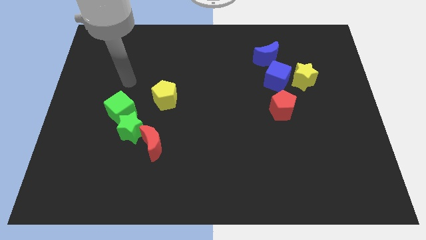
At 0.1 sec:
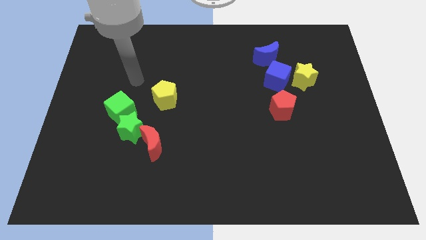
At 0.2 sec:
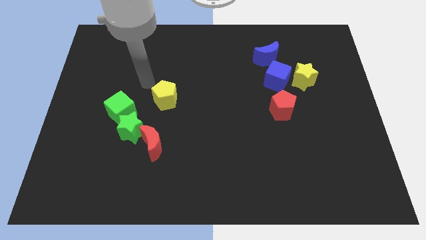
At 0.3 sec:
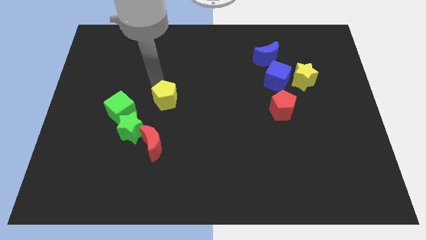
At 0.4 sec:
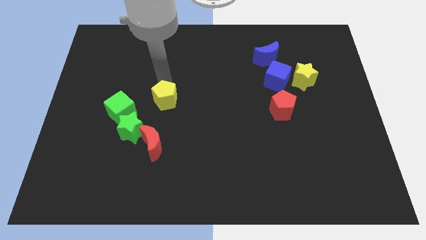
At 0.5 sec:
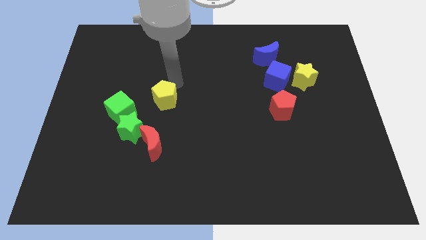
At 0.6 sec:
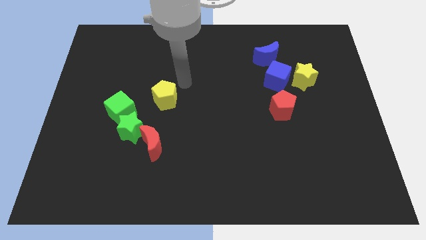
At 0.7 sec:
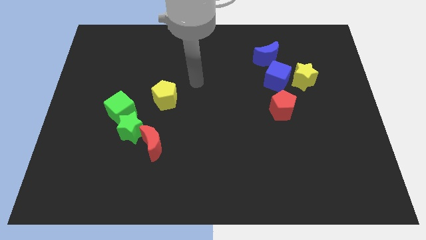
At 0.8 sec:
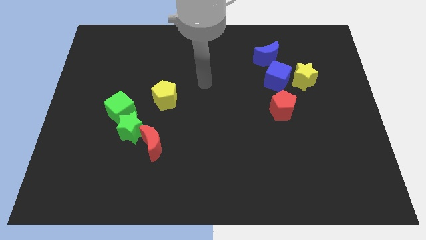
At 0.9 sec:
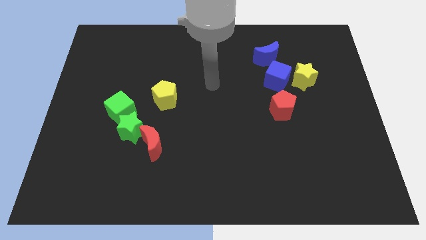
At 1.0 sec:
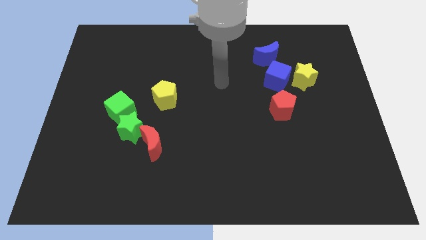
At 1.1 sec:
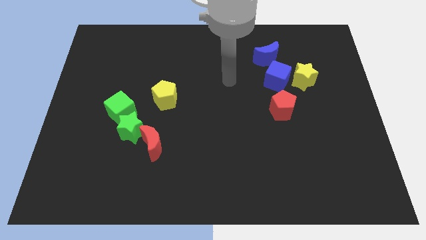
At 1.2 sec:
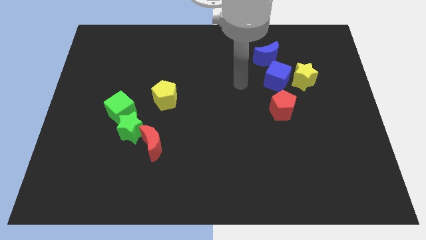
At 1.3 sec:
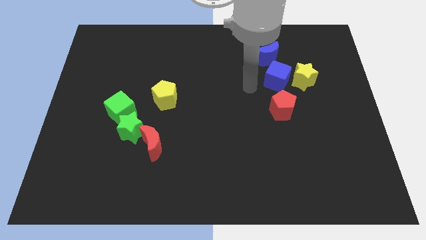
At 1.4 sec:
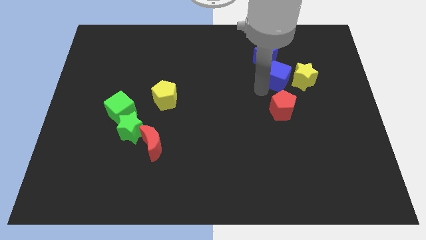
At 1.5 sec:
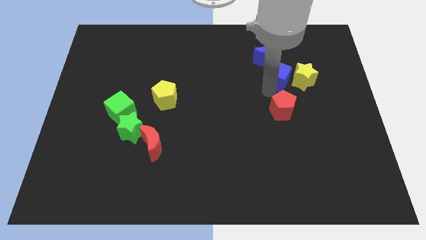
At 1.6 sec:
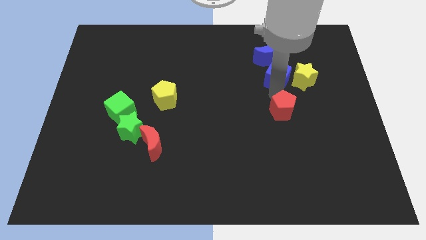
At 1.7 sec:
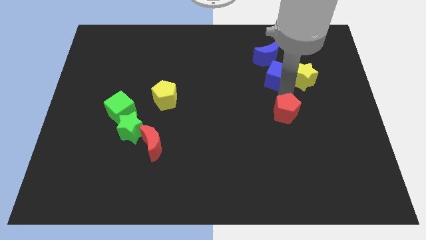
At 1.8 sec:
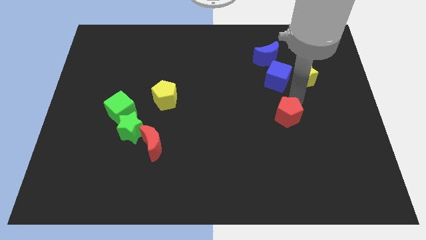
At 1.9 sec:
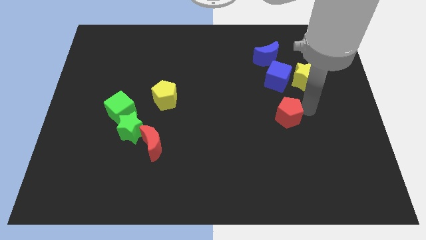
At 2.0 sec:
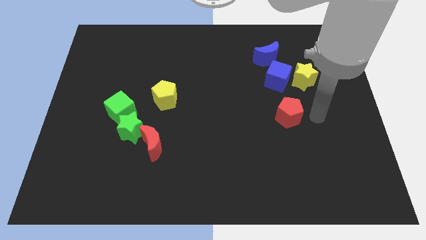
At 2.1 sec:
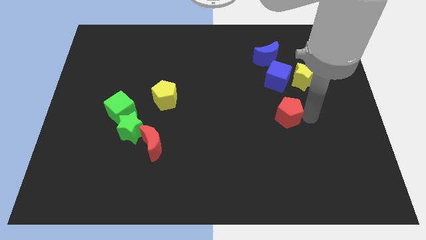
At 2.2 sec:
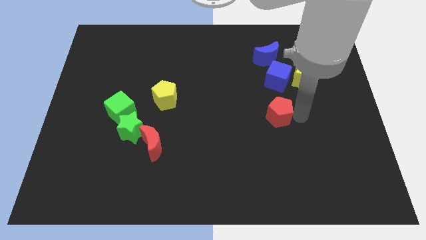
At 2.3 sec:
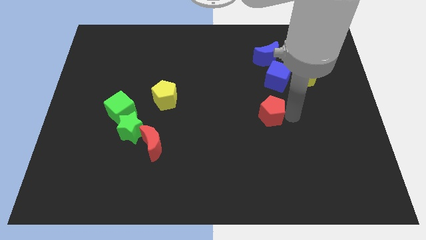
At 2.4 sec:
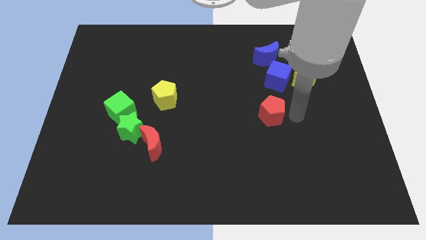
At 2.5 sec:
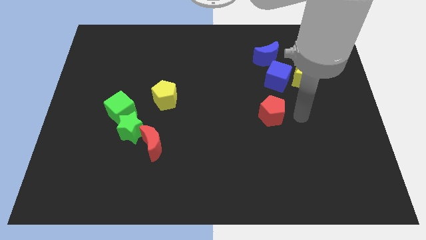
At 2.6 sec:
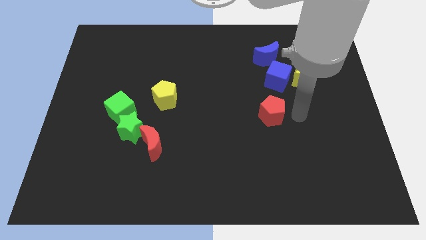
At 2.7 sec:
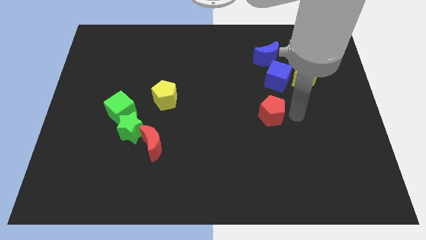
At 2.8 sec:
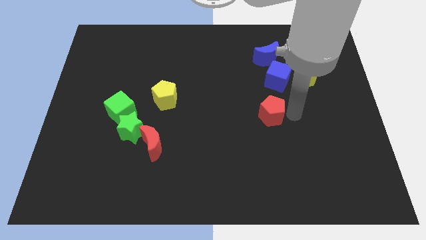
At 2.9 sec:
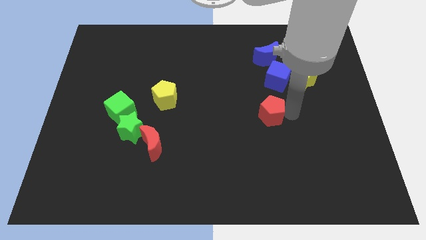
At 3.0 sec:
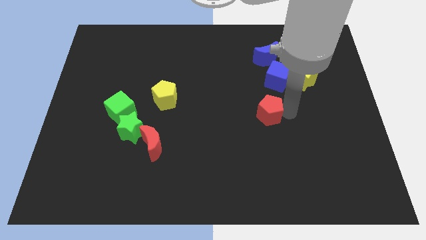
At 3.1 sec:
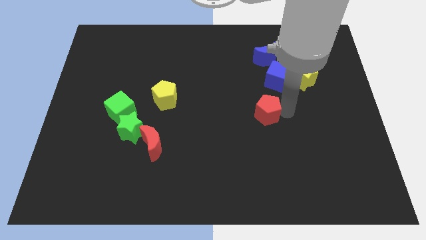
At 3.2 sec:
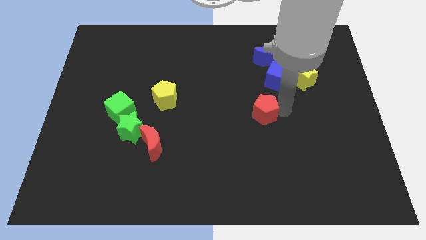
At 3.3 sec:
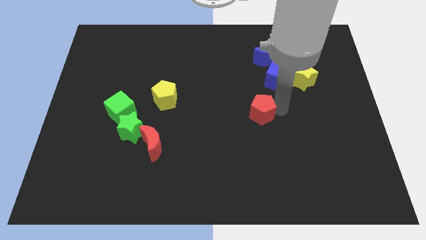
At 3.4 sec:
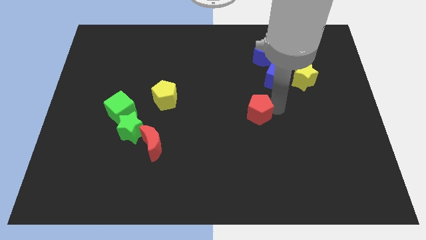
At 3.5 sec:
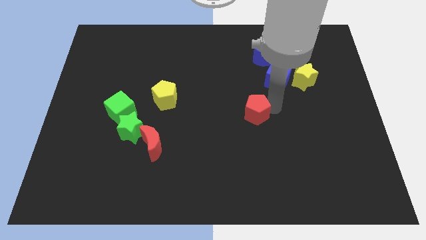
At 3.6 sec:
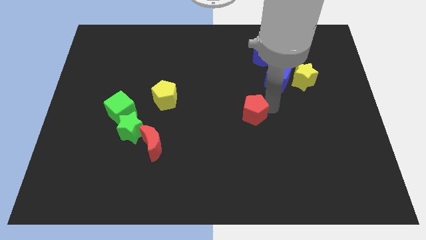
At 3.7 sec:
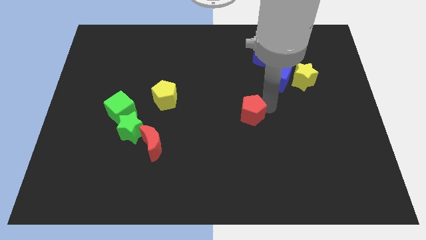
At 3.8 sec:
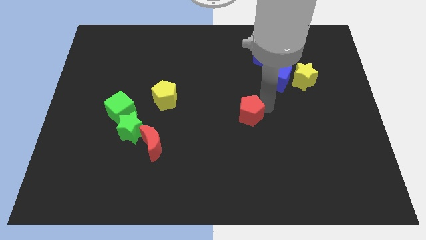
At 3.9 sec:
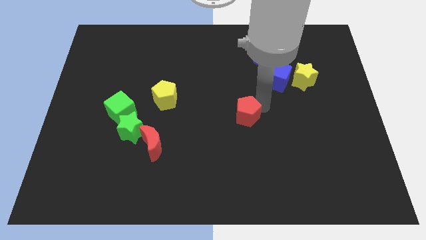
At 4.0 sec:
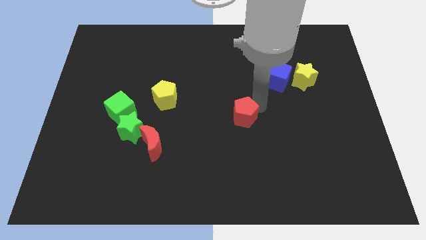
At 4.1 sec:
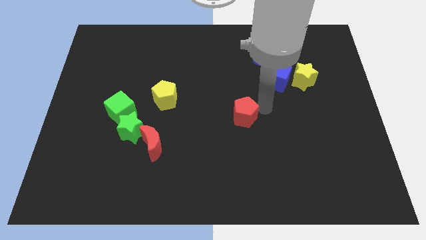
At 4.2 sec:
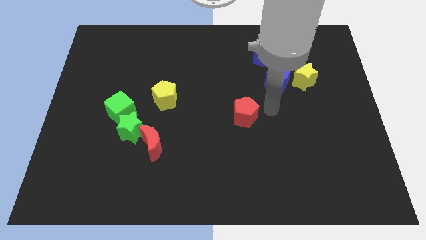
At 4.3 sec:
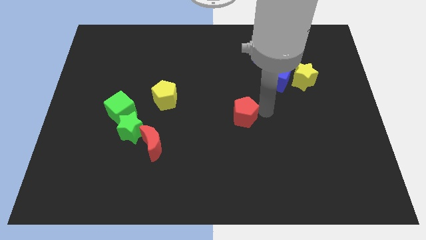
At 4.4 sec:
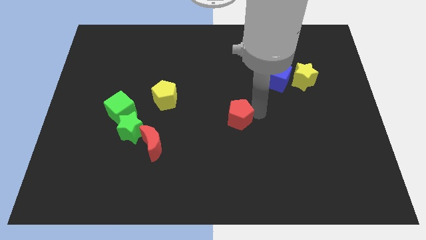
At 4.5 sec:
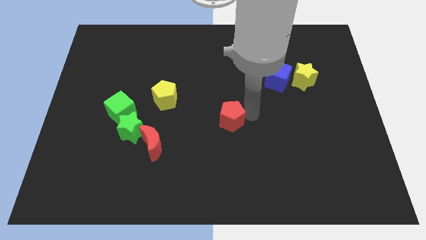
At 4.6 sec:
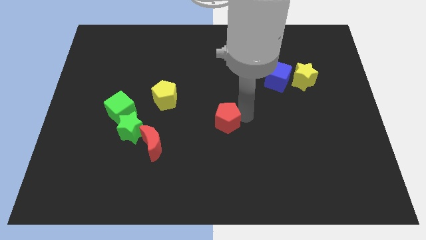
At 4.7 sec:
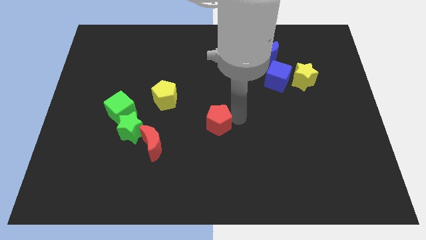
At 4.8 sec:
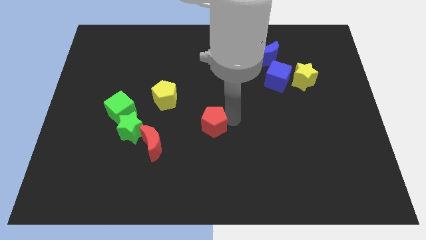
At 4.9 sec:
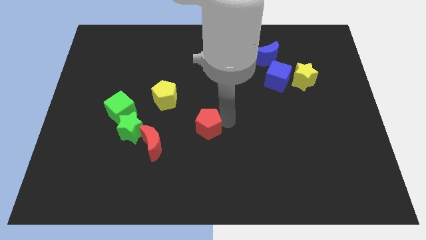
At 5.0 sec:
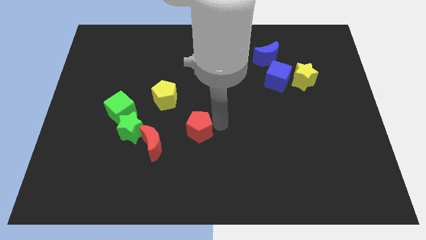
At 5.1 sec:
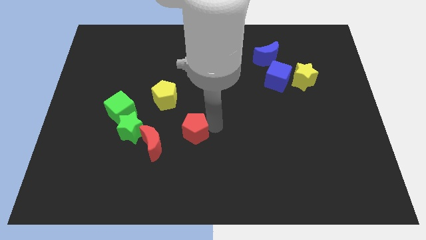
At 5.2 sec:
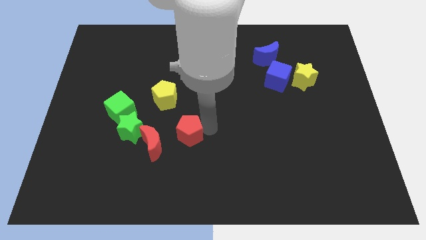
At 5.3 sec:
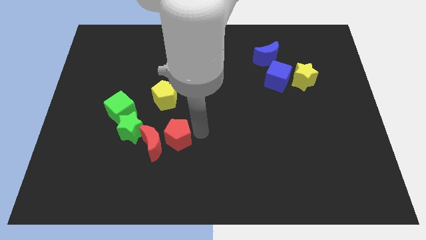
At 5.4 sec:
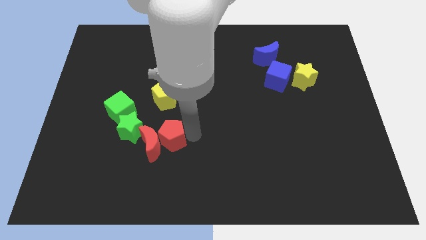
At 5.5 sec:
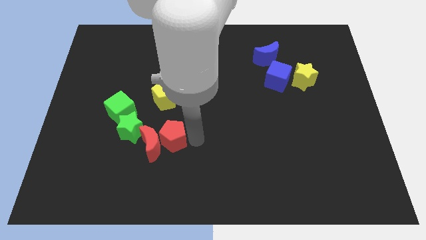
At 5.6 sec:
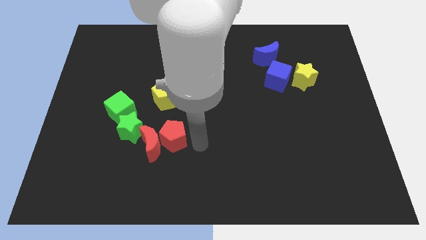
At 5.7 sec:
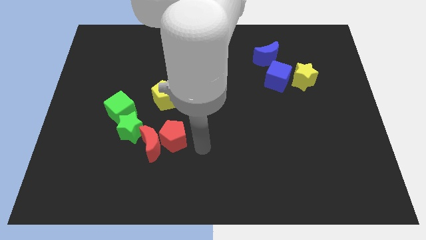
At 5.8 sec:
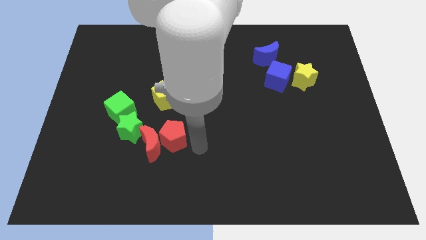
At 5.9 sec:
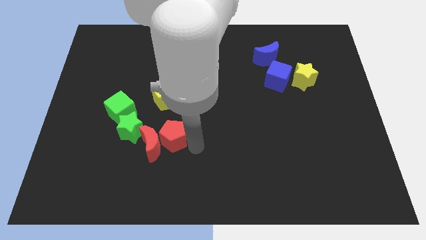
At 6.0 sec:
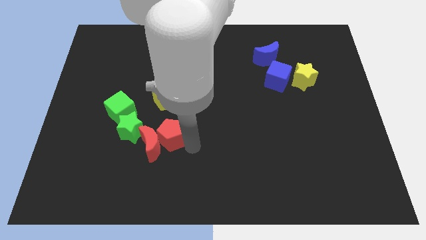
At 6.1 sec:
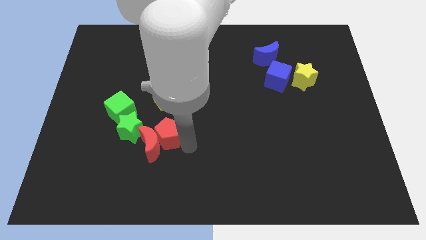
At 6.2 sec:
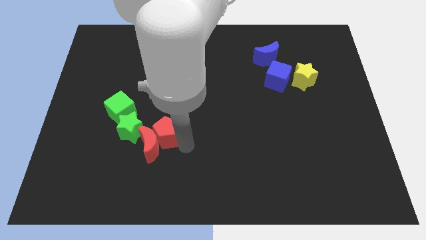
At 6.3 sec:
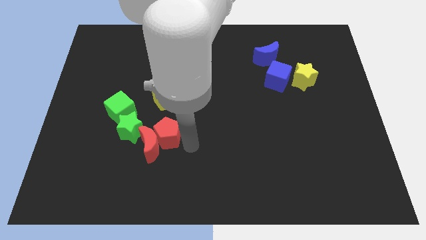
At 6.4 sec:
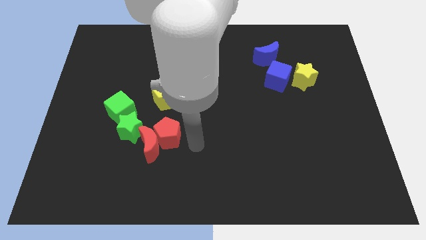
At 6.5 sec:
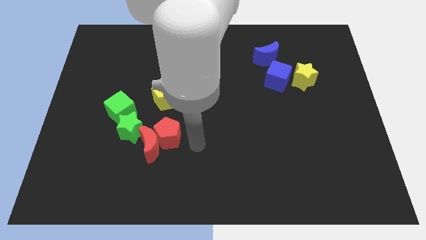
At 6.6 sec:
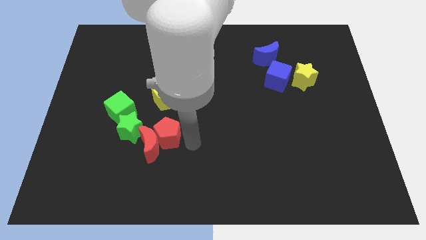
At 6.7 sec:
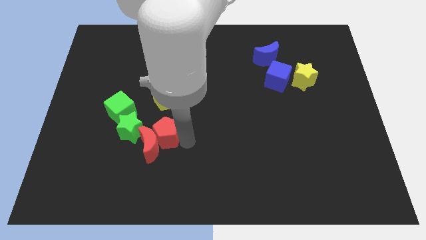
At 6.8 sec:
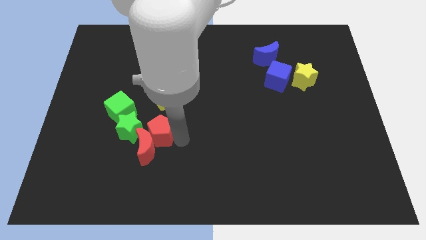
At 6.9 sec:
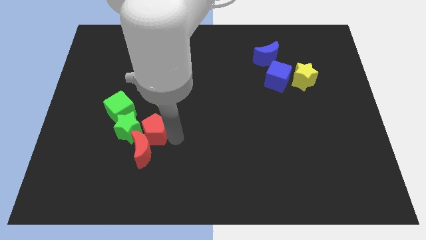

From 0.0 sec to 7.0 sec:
push the red pentagon to the green star

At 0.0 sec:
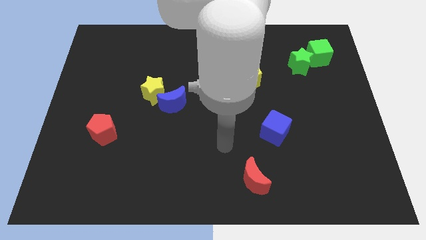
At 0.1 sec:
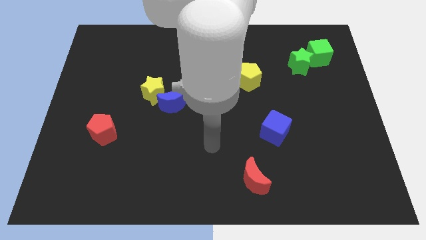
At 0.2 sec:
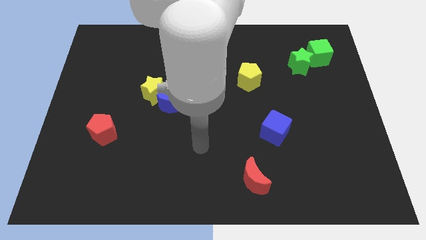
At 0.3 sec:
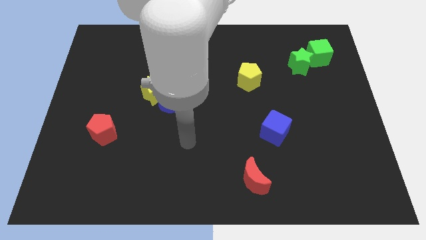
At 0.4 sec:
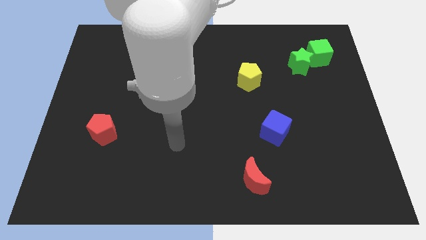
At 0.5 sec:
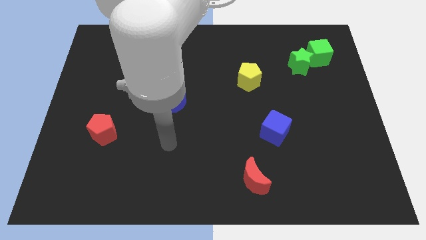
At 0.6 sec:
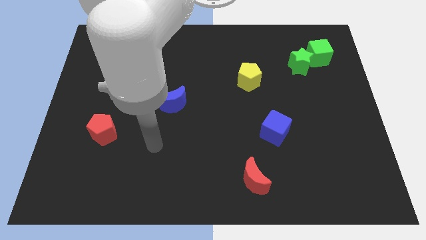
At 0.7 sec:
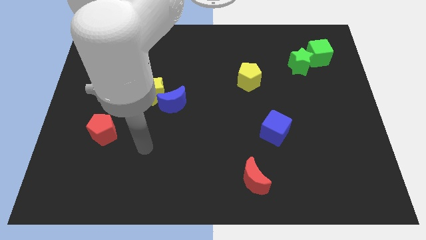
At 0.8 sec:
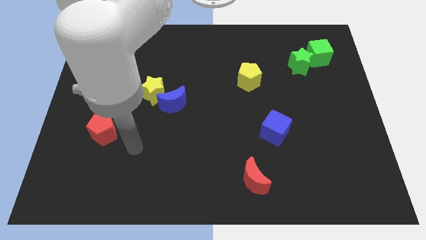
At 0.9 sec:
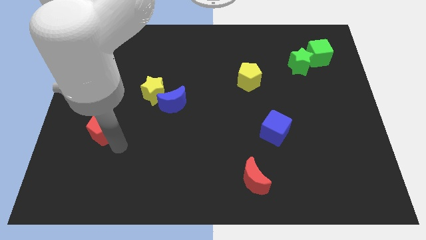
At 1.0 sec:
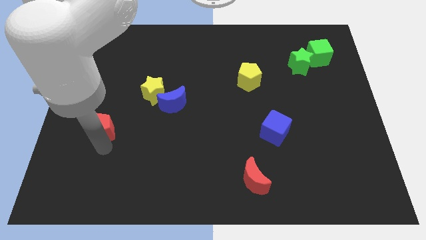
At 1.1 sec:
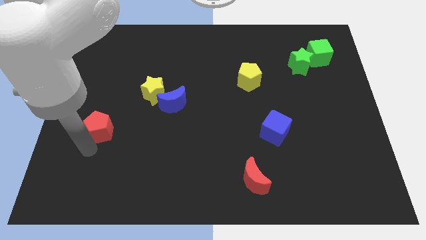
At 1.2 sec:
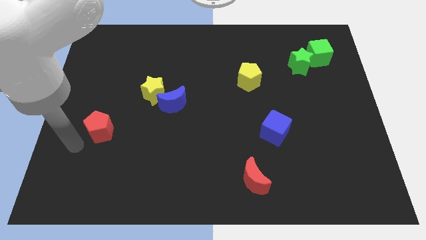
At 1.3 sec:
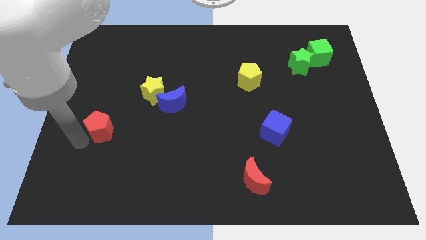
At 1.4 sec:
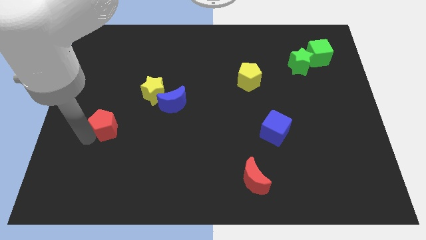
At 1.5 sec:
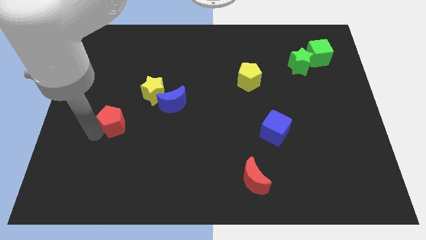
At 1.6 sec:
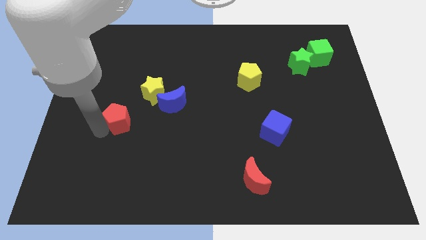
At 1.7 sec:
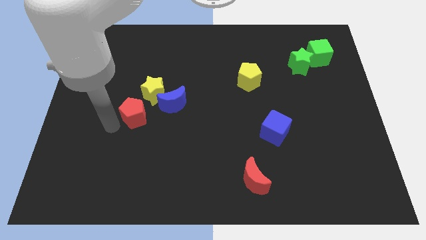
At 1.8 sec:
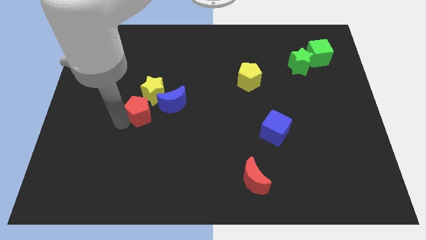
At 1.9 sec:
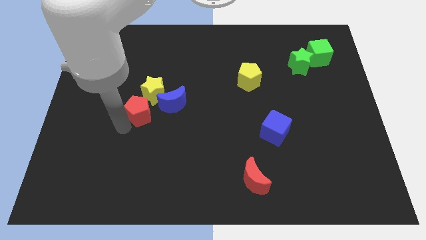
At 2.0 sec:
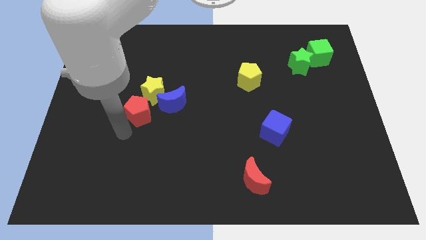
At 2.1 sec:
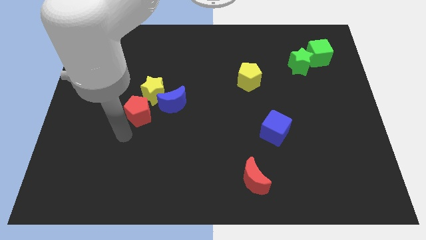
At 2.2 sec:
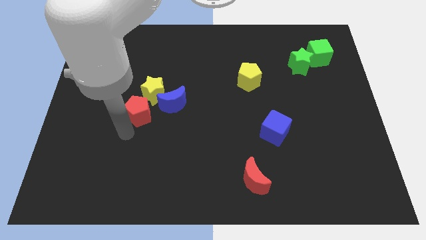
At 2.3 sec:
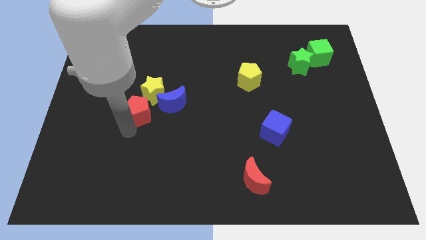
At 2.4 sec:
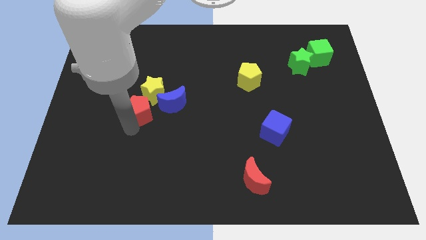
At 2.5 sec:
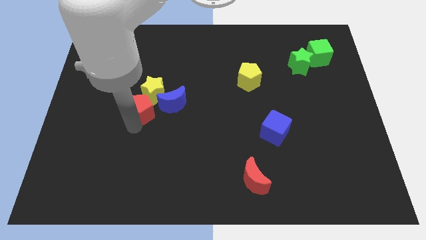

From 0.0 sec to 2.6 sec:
push the red pentagon close to the yellow star
